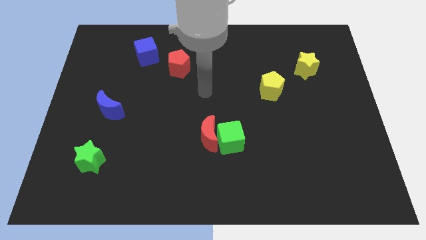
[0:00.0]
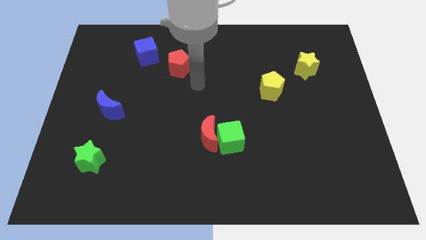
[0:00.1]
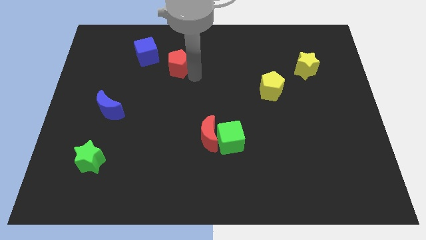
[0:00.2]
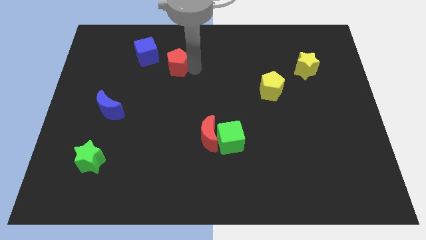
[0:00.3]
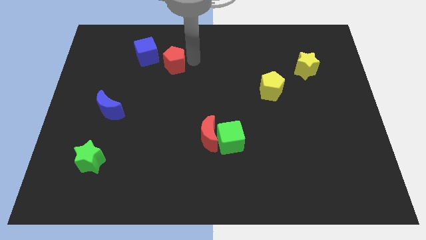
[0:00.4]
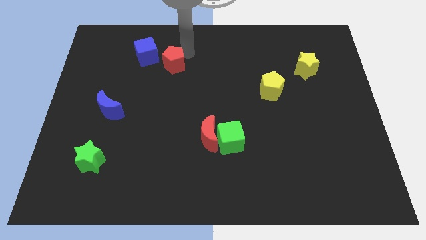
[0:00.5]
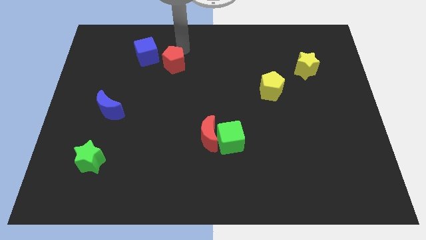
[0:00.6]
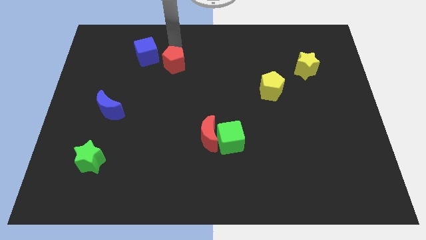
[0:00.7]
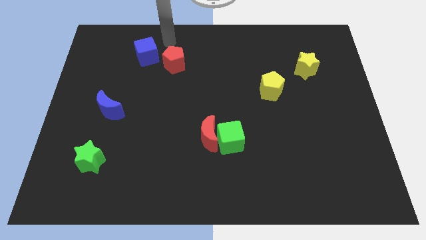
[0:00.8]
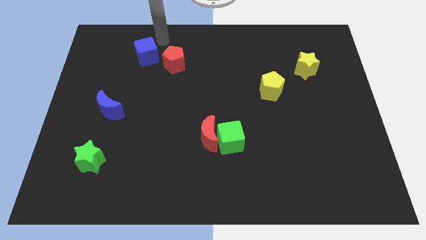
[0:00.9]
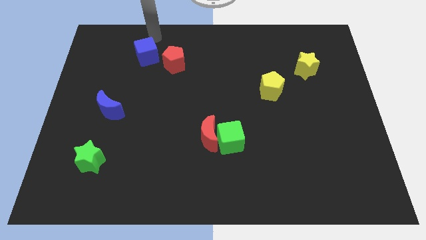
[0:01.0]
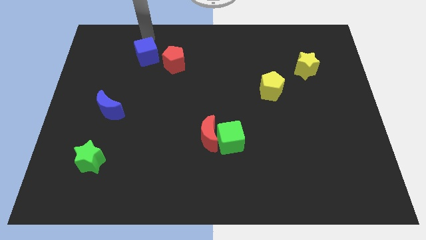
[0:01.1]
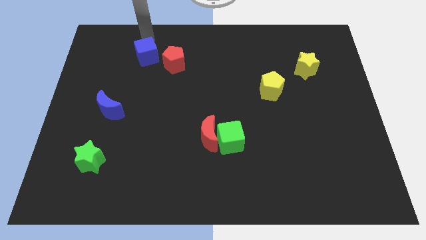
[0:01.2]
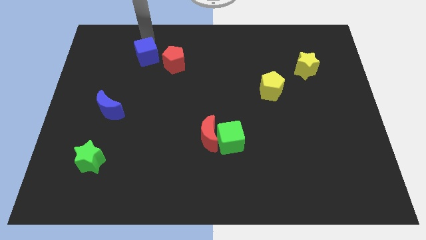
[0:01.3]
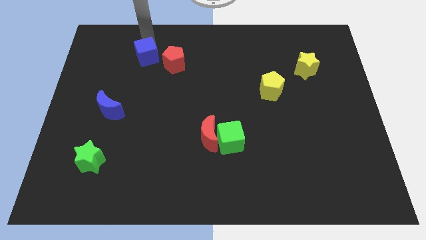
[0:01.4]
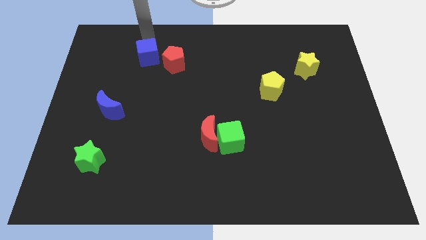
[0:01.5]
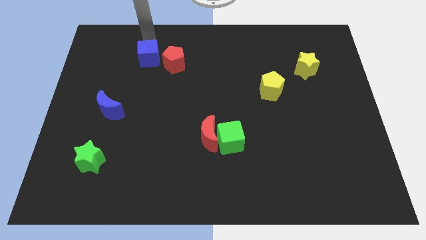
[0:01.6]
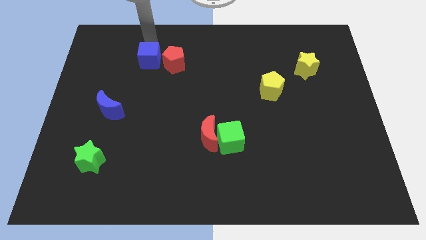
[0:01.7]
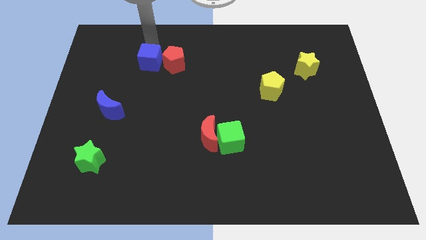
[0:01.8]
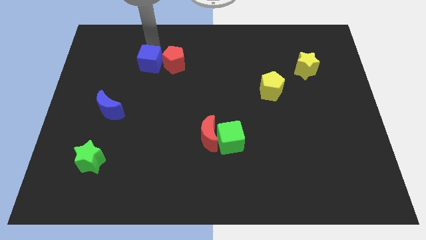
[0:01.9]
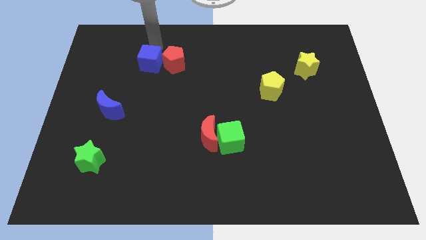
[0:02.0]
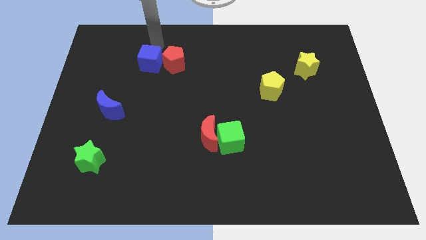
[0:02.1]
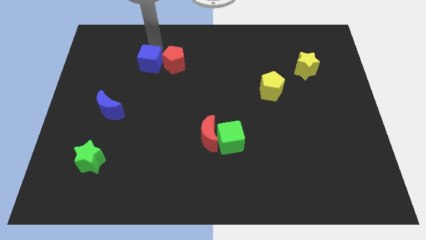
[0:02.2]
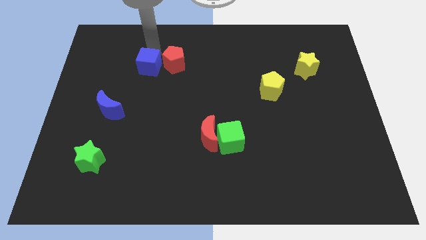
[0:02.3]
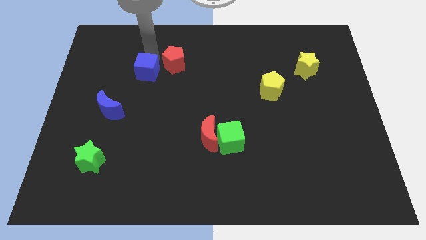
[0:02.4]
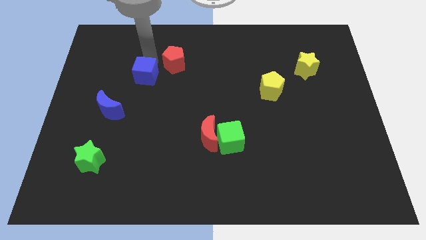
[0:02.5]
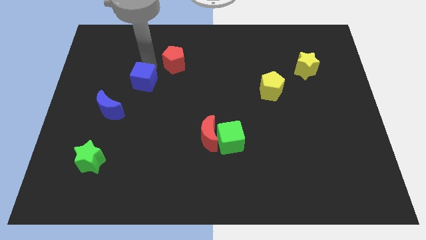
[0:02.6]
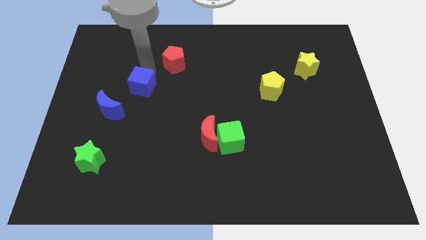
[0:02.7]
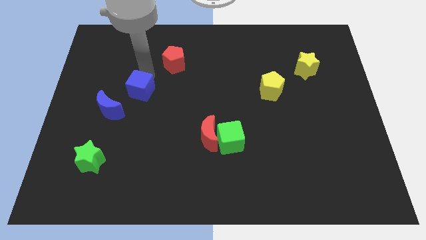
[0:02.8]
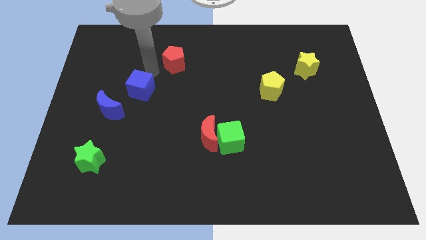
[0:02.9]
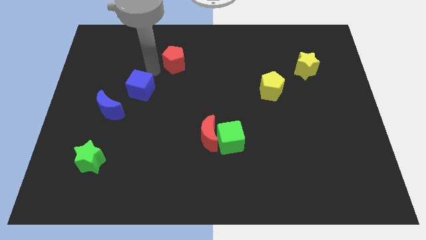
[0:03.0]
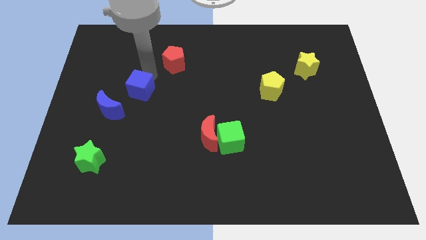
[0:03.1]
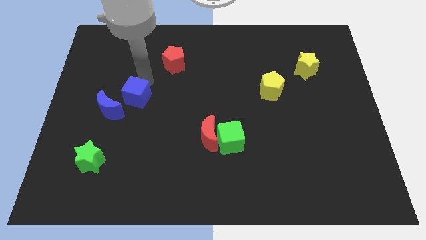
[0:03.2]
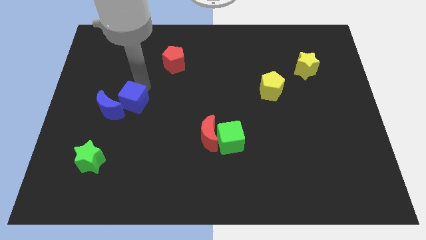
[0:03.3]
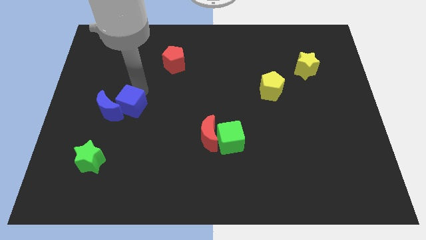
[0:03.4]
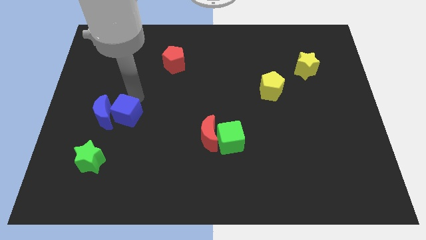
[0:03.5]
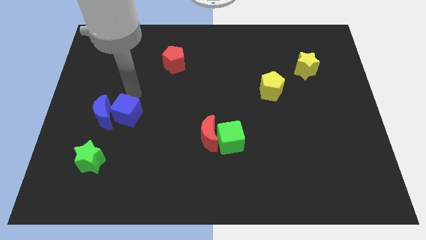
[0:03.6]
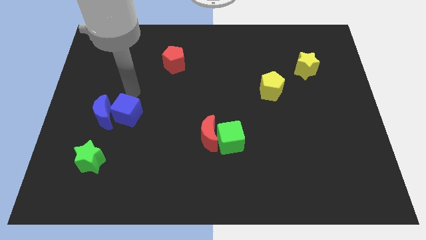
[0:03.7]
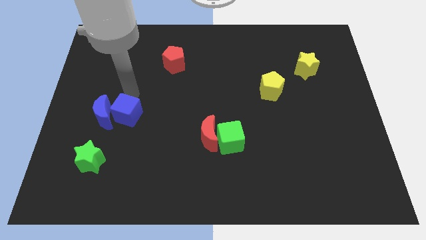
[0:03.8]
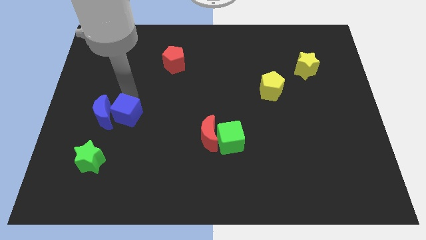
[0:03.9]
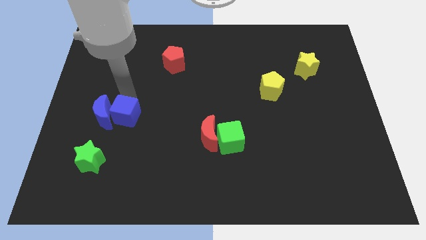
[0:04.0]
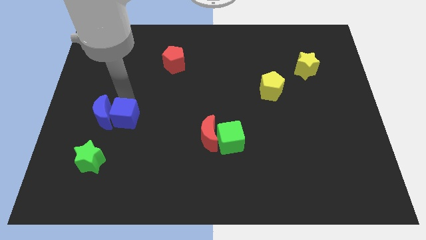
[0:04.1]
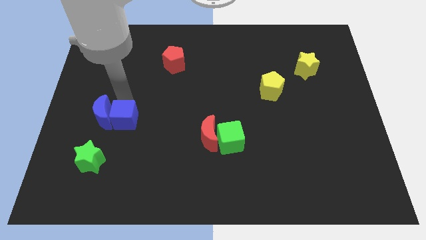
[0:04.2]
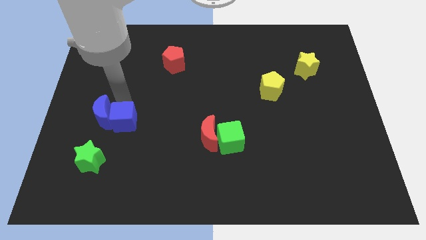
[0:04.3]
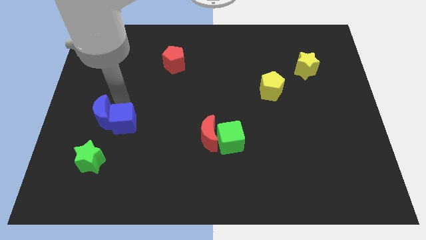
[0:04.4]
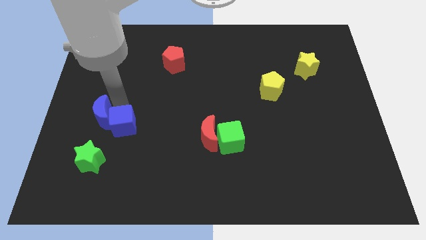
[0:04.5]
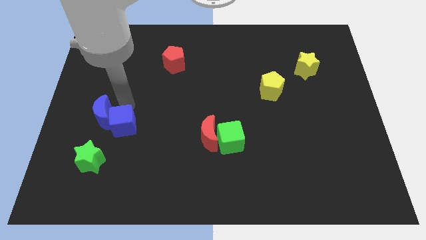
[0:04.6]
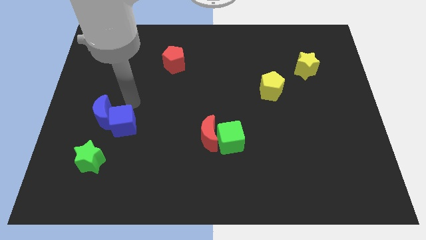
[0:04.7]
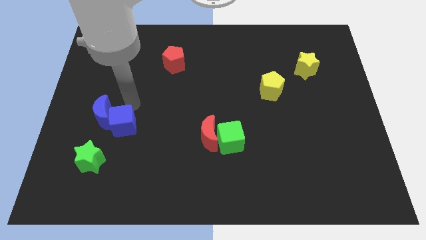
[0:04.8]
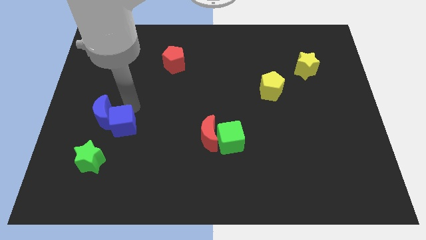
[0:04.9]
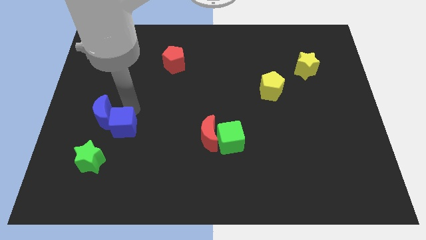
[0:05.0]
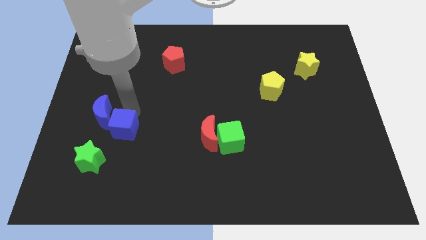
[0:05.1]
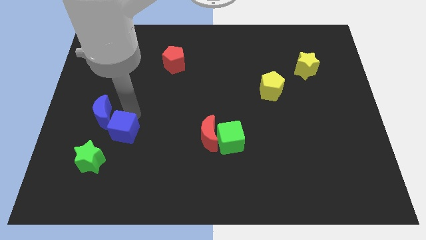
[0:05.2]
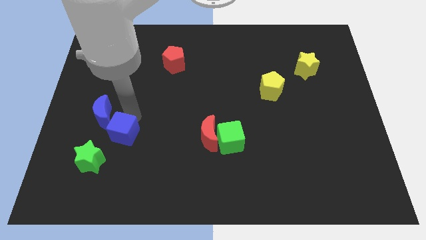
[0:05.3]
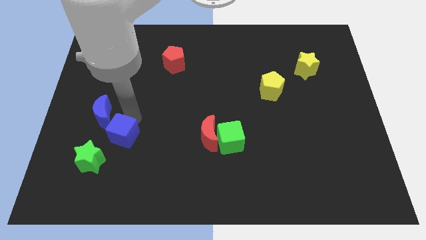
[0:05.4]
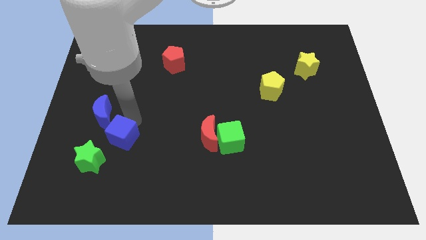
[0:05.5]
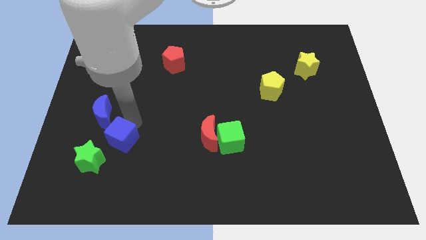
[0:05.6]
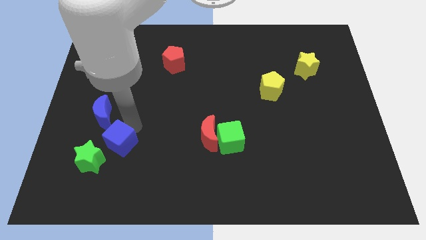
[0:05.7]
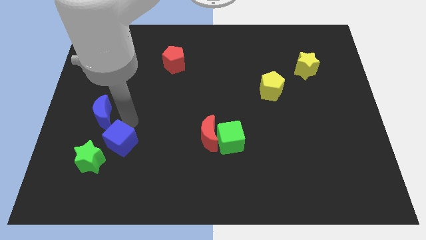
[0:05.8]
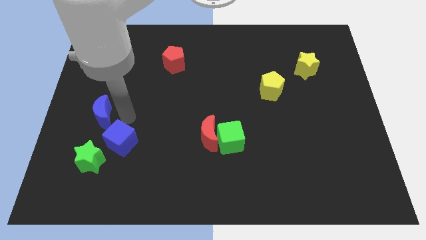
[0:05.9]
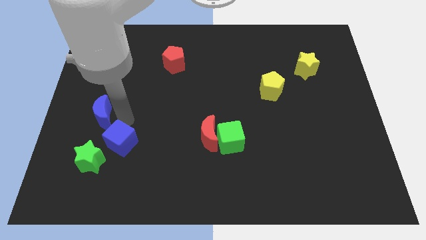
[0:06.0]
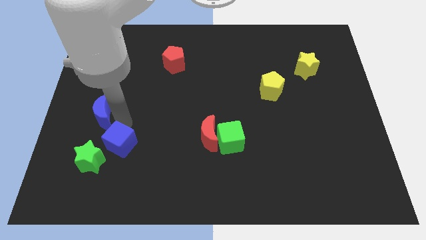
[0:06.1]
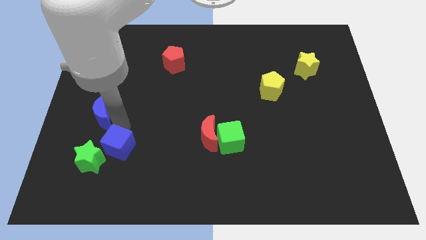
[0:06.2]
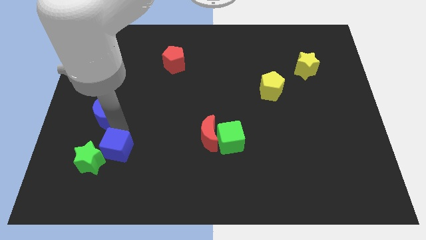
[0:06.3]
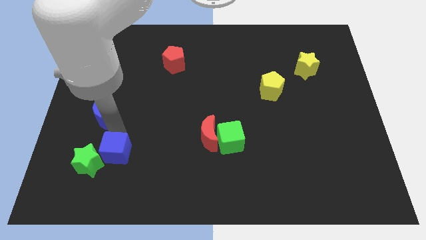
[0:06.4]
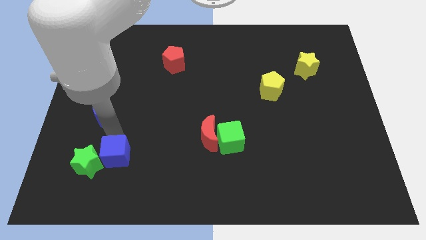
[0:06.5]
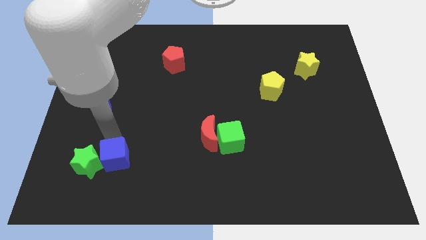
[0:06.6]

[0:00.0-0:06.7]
slide the blue cube to the bottom right of the green star

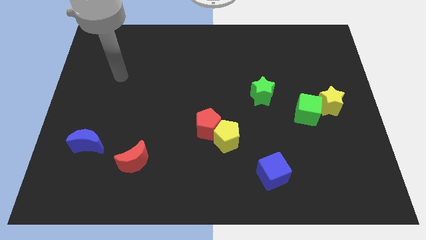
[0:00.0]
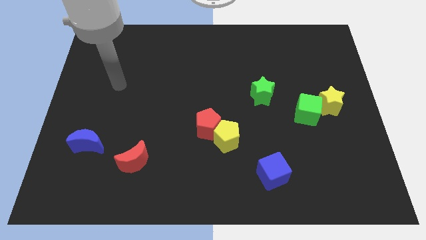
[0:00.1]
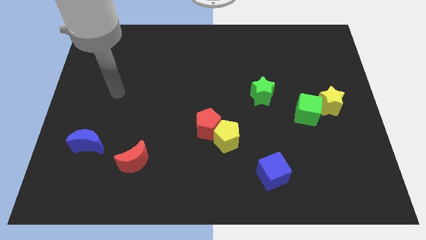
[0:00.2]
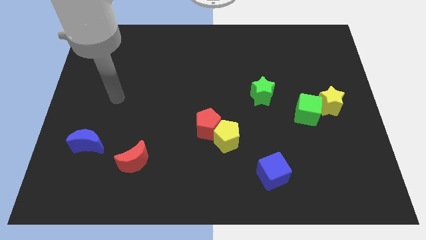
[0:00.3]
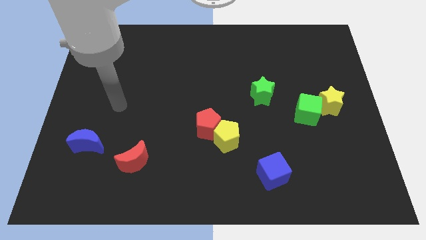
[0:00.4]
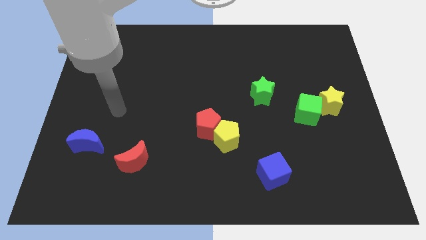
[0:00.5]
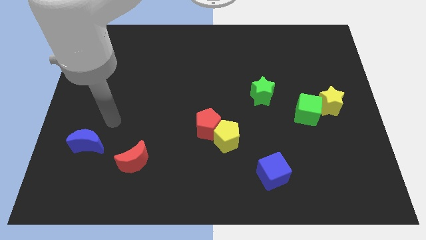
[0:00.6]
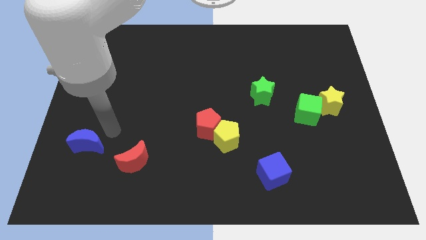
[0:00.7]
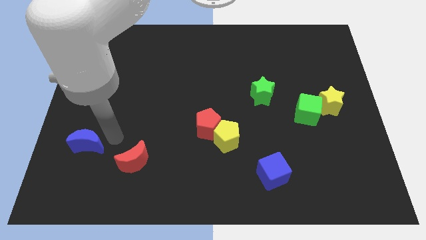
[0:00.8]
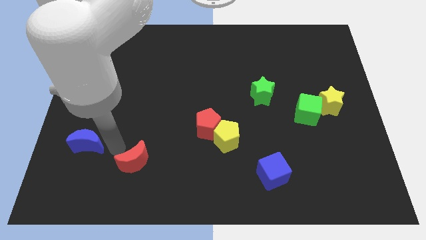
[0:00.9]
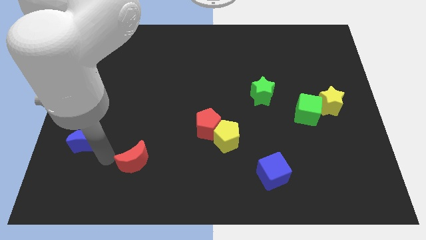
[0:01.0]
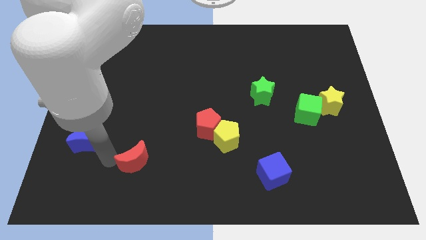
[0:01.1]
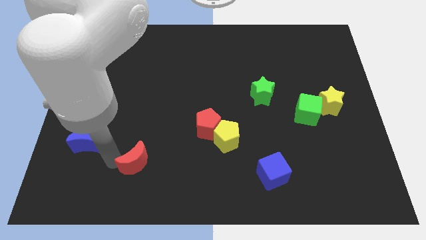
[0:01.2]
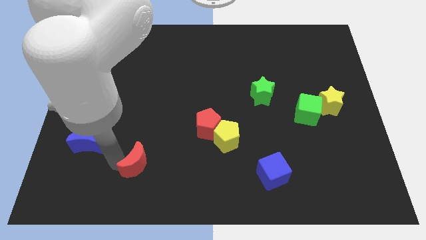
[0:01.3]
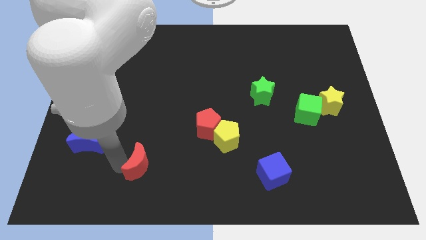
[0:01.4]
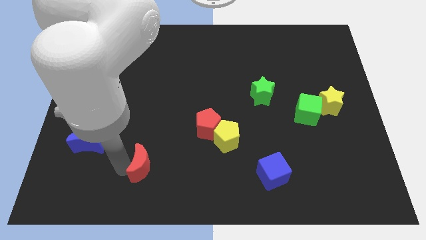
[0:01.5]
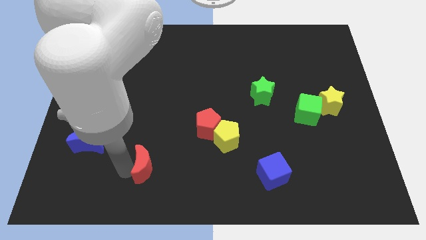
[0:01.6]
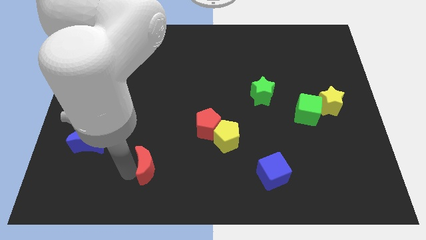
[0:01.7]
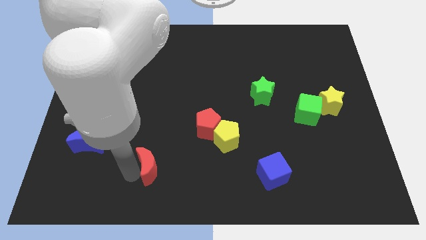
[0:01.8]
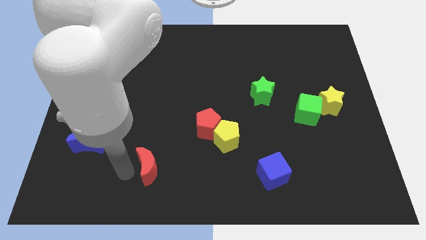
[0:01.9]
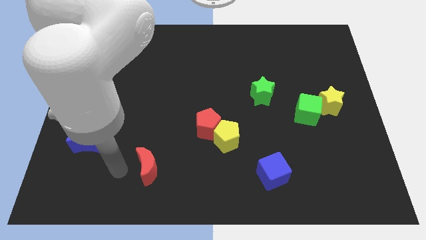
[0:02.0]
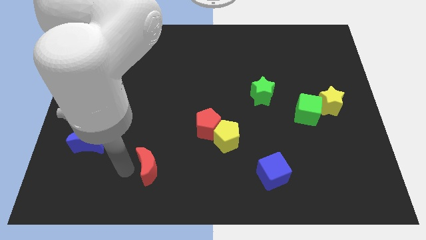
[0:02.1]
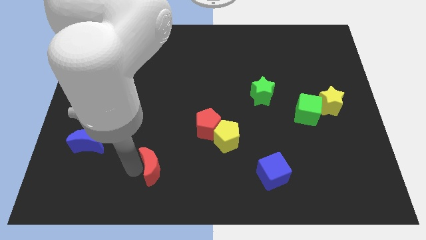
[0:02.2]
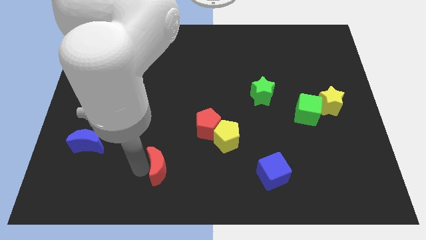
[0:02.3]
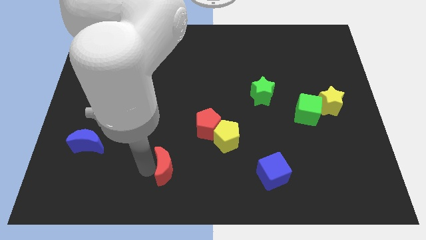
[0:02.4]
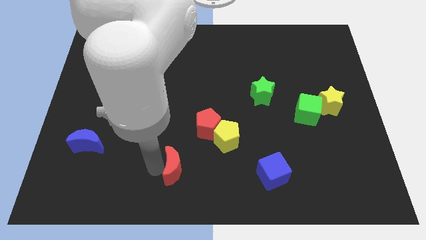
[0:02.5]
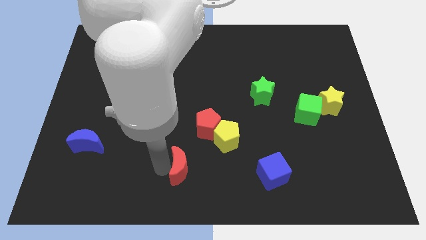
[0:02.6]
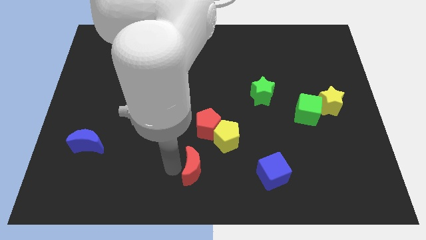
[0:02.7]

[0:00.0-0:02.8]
push the red moon to the left side of the blue cube
